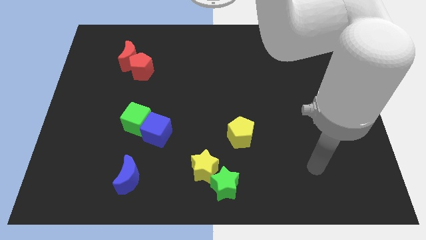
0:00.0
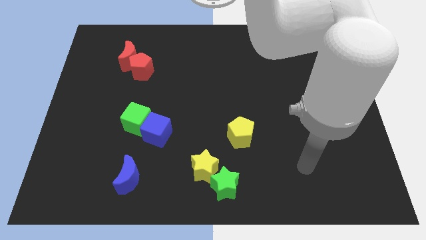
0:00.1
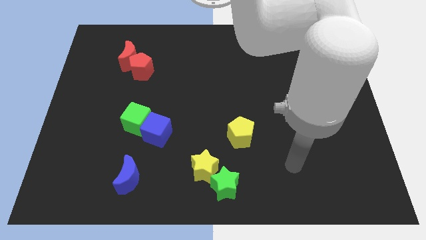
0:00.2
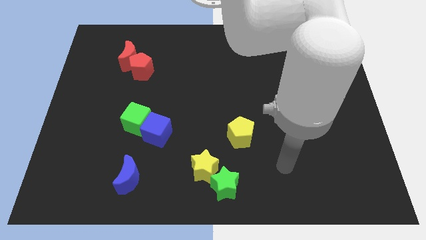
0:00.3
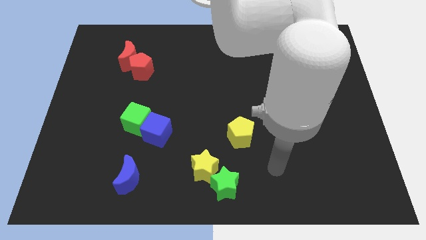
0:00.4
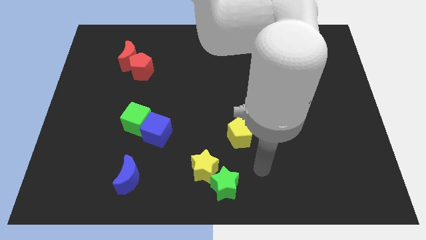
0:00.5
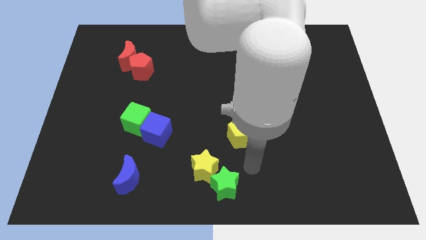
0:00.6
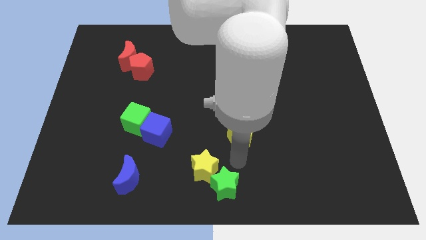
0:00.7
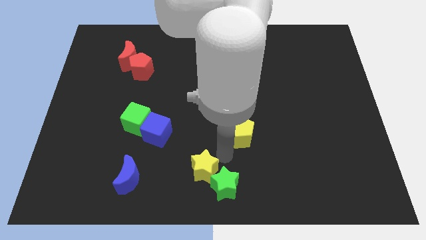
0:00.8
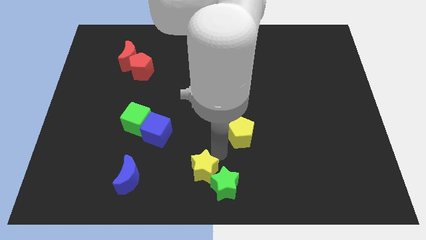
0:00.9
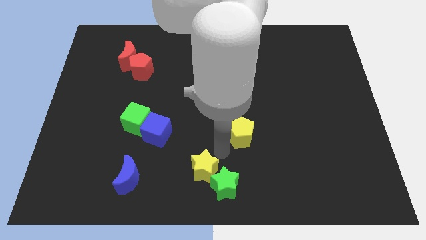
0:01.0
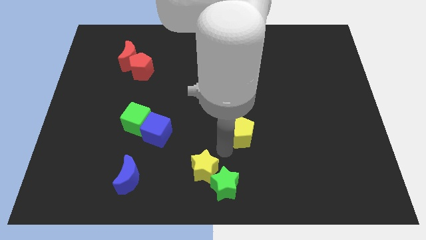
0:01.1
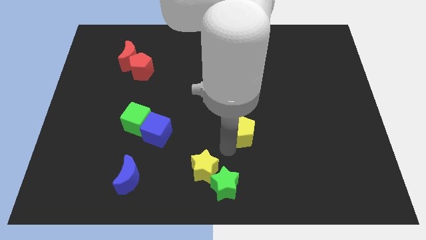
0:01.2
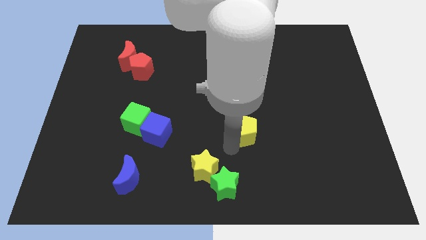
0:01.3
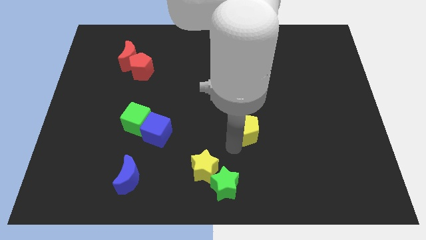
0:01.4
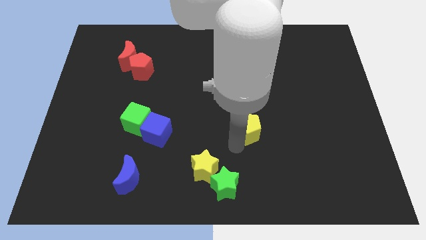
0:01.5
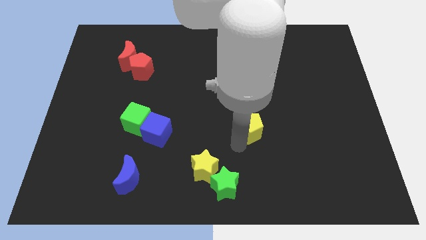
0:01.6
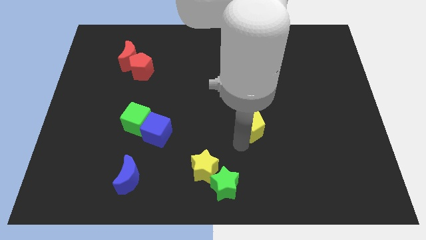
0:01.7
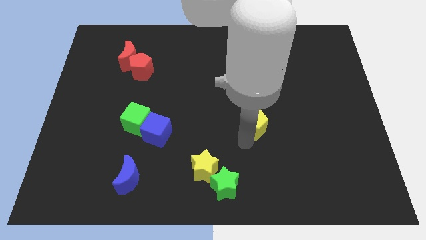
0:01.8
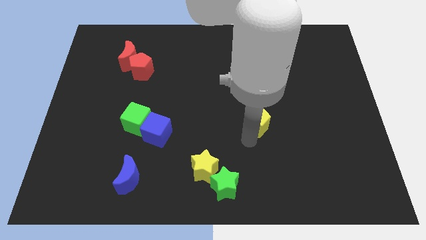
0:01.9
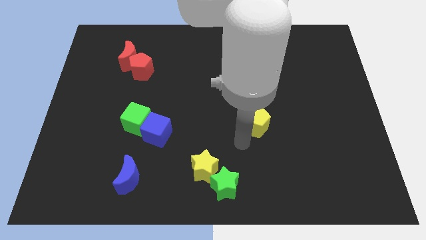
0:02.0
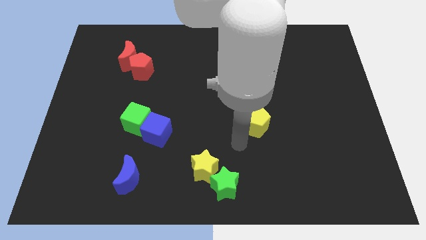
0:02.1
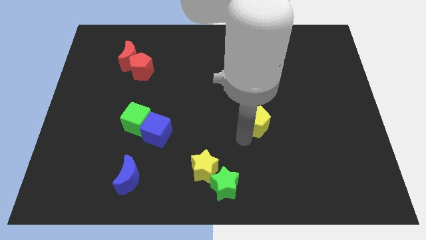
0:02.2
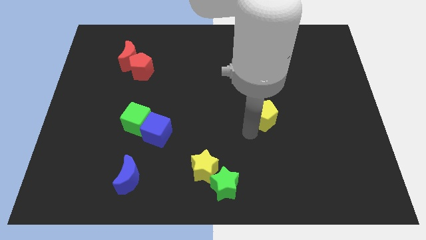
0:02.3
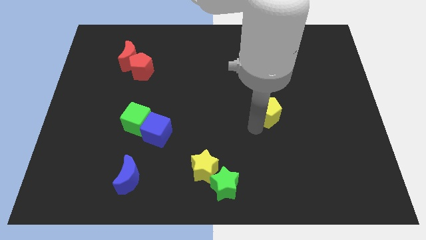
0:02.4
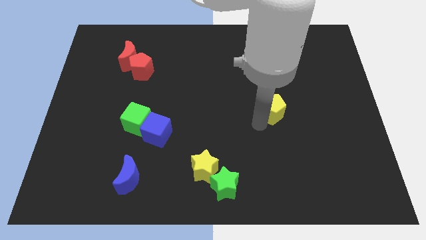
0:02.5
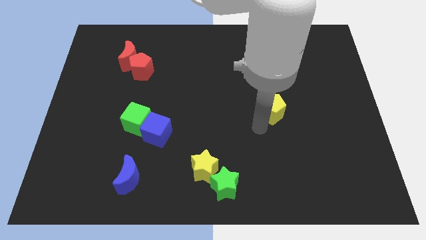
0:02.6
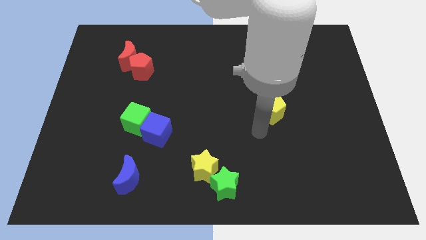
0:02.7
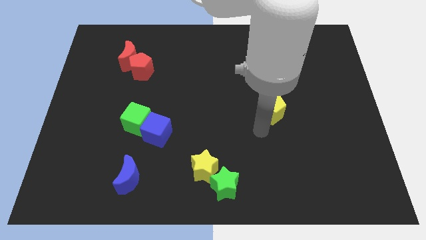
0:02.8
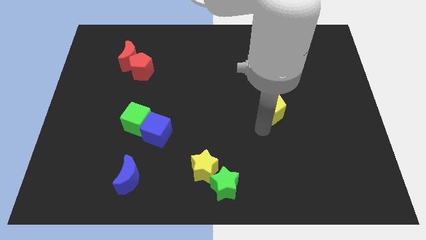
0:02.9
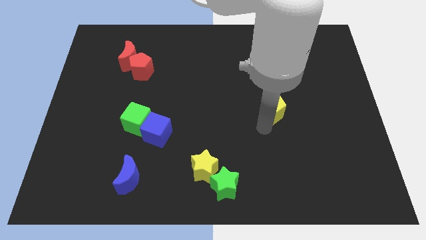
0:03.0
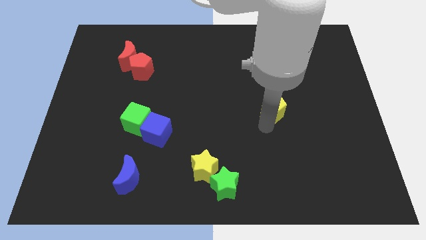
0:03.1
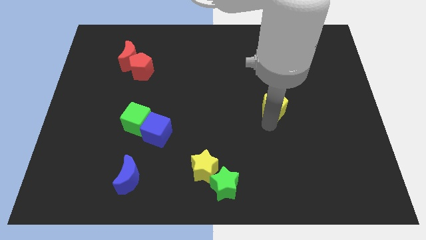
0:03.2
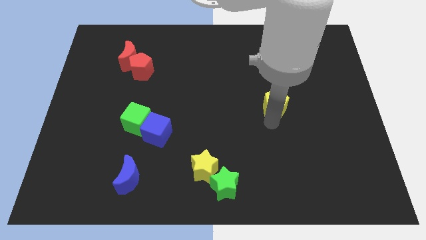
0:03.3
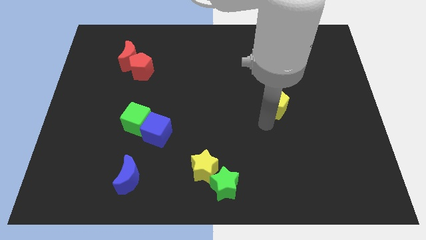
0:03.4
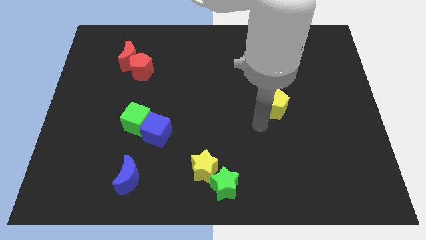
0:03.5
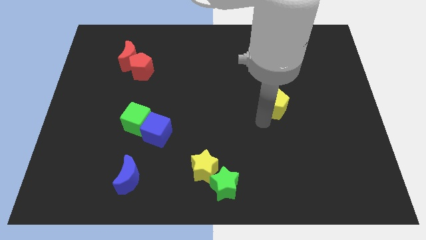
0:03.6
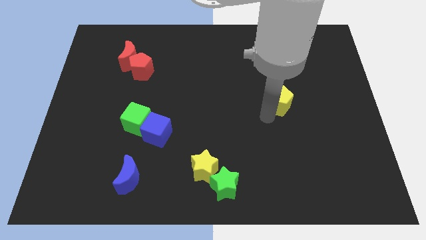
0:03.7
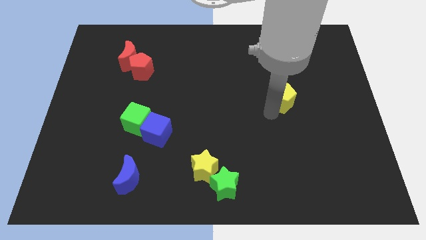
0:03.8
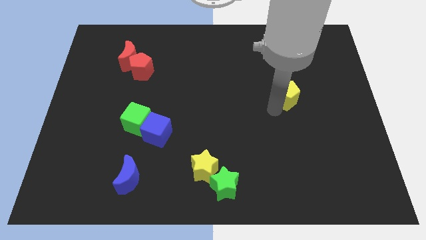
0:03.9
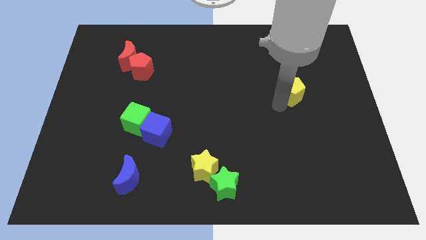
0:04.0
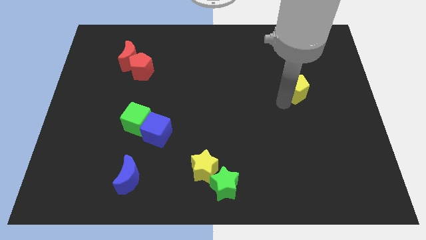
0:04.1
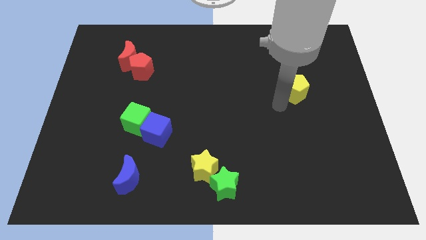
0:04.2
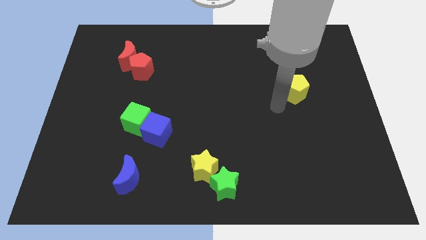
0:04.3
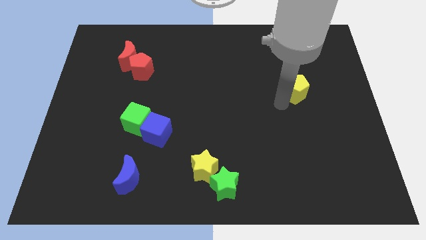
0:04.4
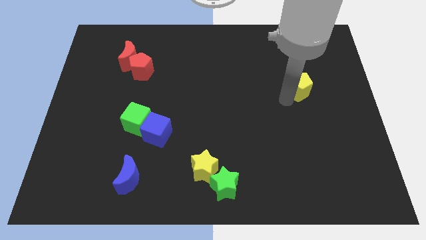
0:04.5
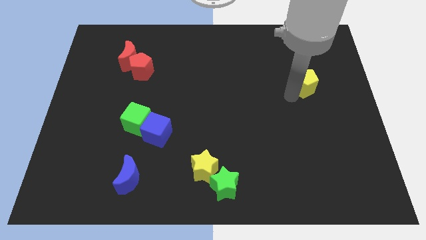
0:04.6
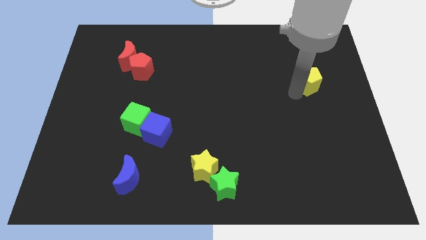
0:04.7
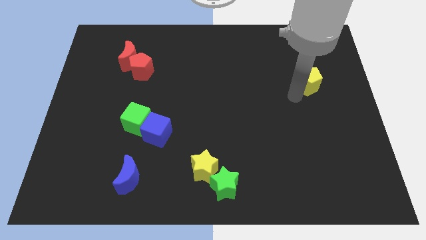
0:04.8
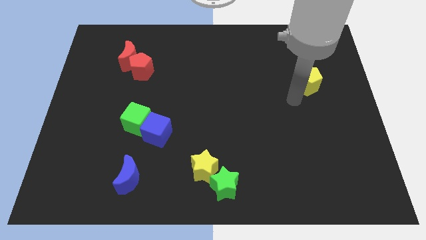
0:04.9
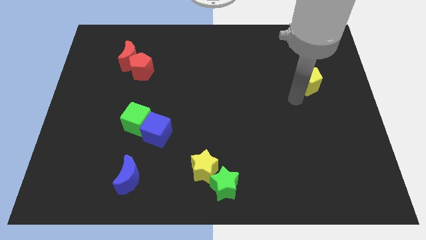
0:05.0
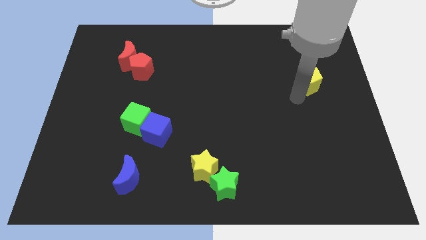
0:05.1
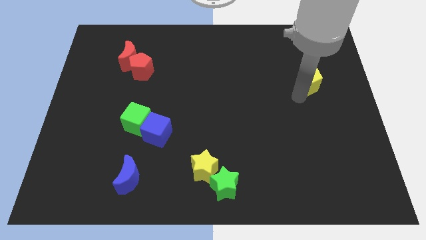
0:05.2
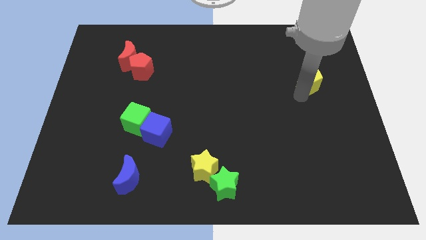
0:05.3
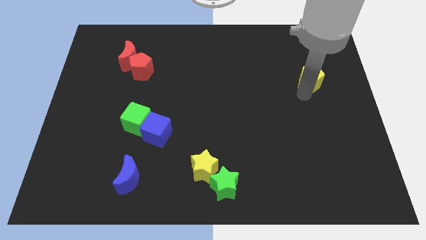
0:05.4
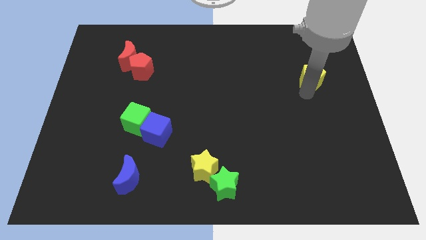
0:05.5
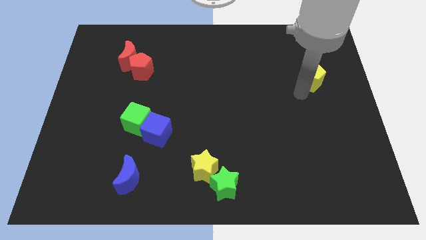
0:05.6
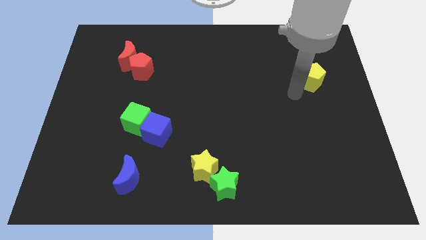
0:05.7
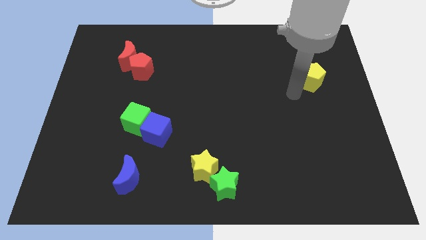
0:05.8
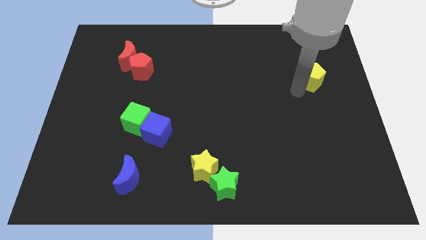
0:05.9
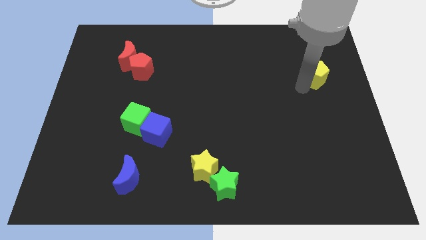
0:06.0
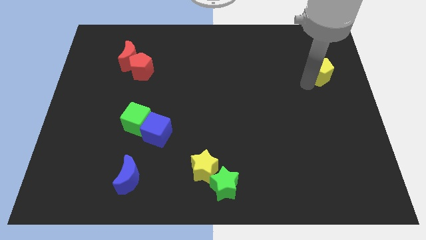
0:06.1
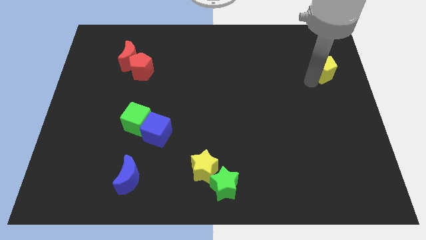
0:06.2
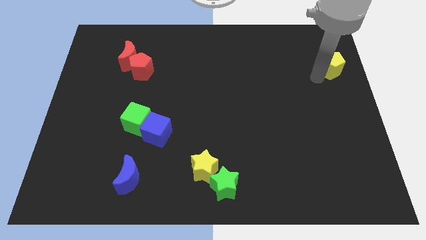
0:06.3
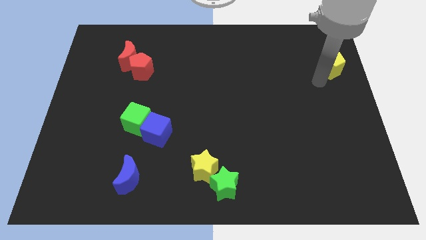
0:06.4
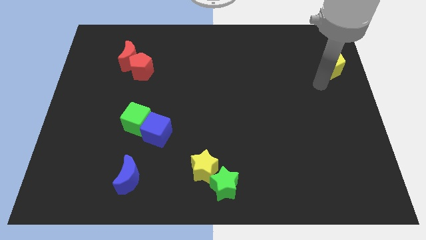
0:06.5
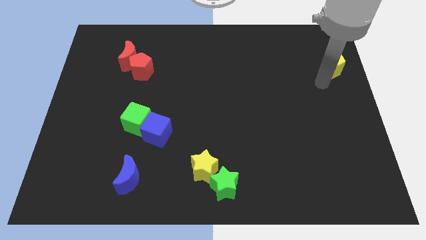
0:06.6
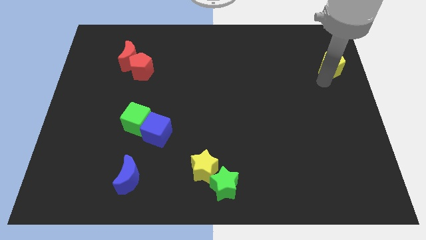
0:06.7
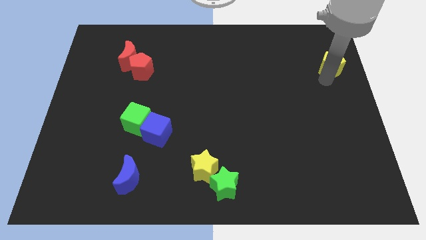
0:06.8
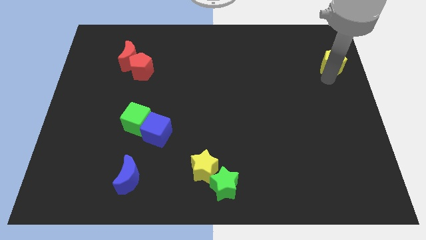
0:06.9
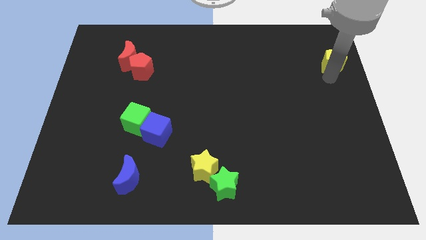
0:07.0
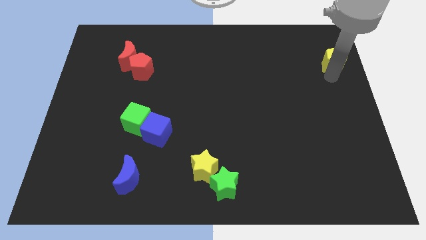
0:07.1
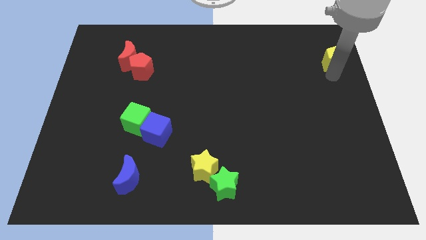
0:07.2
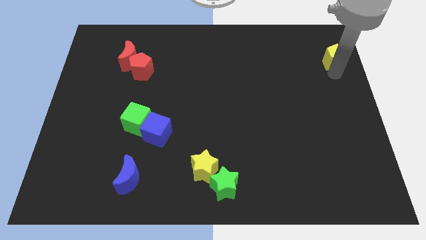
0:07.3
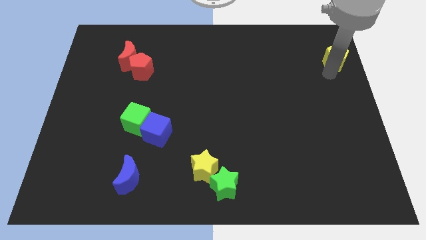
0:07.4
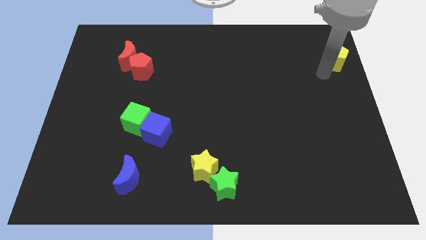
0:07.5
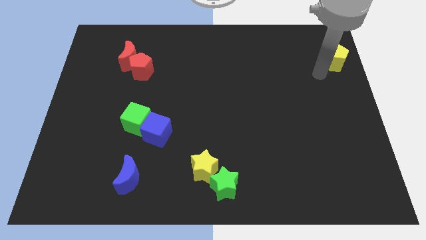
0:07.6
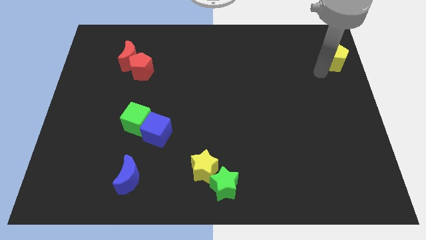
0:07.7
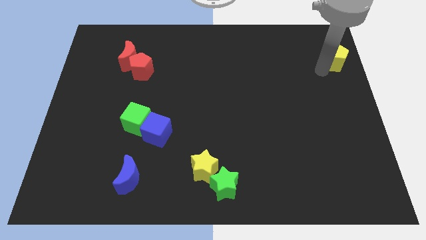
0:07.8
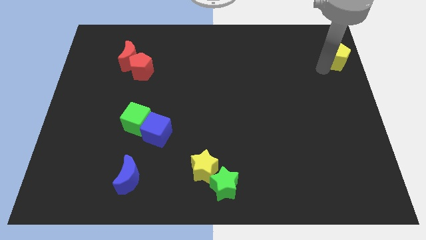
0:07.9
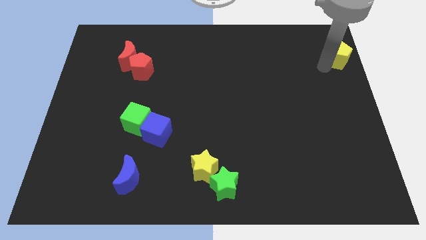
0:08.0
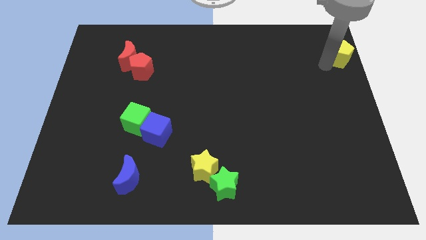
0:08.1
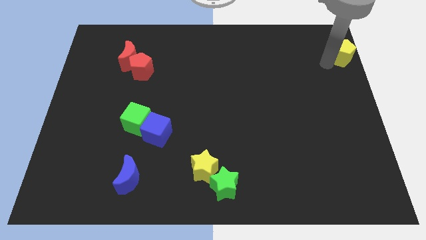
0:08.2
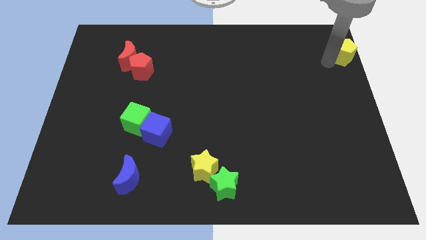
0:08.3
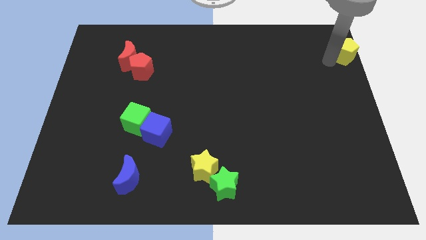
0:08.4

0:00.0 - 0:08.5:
move the yellow pentagon to the top right of the board
